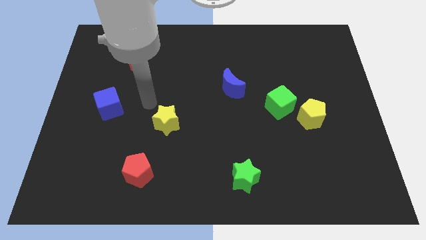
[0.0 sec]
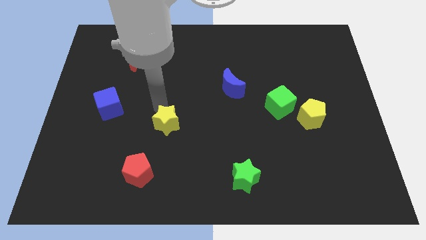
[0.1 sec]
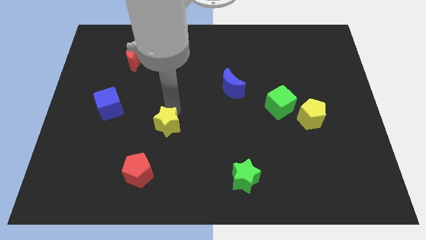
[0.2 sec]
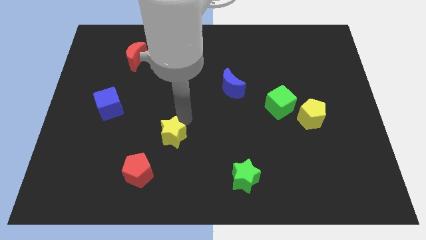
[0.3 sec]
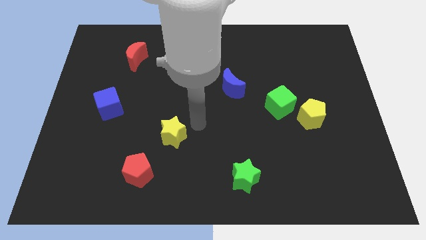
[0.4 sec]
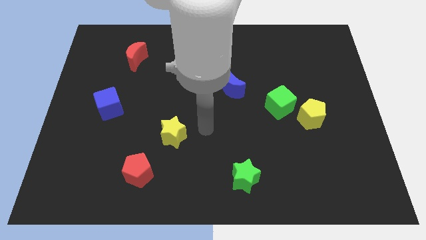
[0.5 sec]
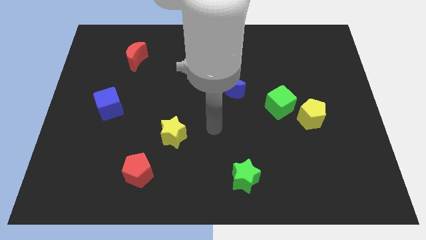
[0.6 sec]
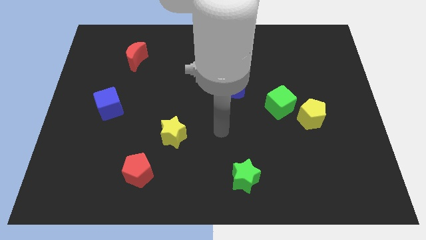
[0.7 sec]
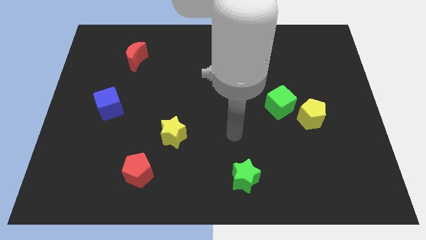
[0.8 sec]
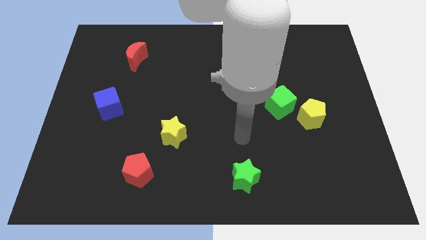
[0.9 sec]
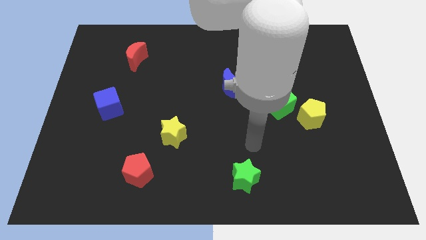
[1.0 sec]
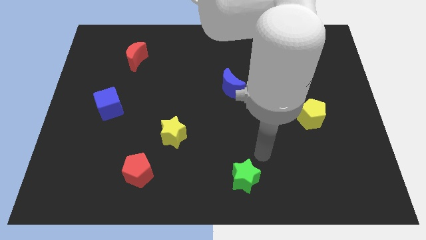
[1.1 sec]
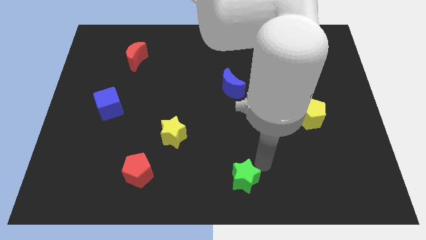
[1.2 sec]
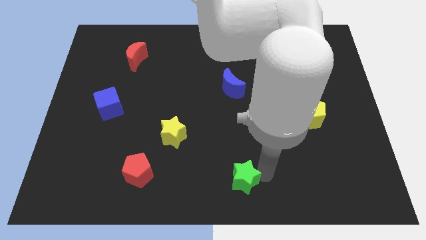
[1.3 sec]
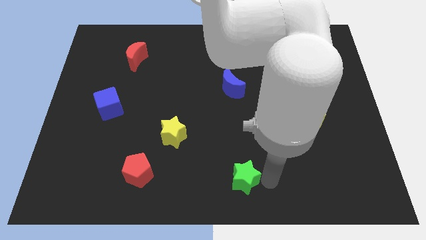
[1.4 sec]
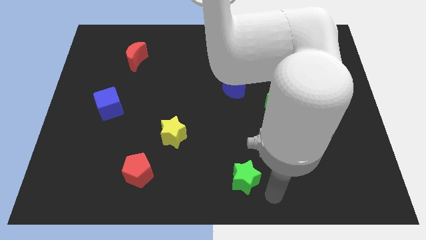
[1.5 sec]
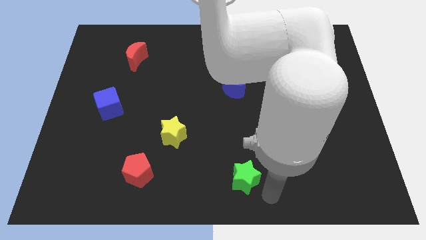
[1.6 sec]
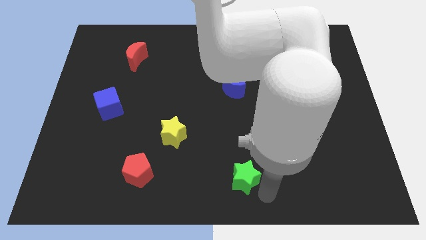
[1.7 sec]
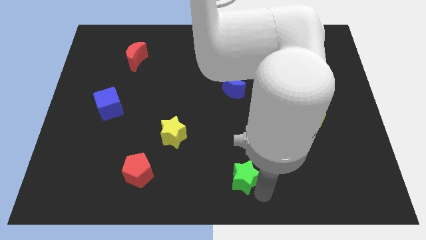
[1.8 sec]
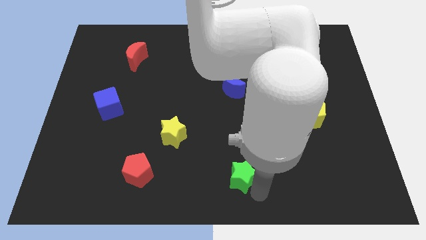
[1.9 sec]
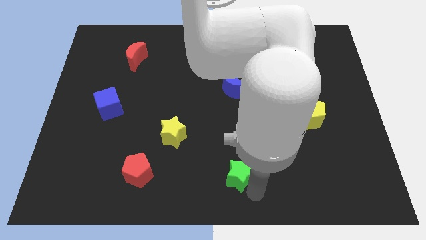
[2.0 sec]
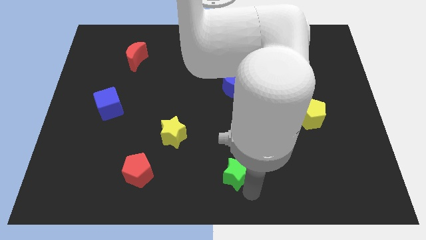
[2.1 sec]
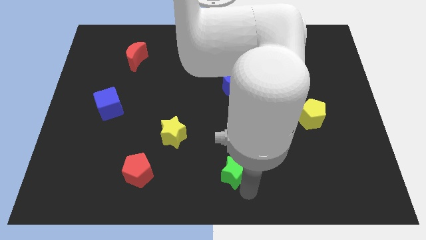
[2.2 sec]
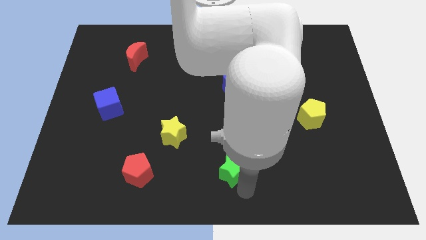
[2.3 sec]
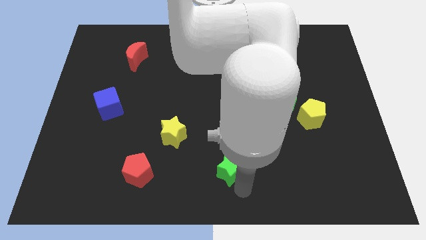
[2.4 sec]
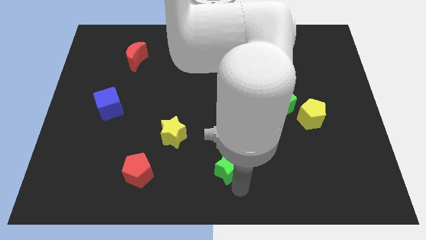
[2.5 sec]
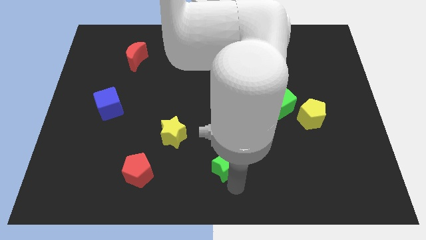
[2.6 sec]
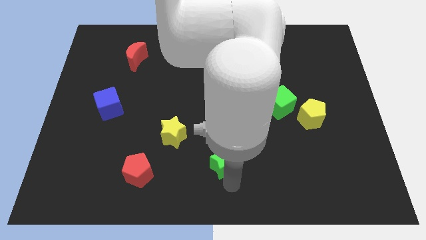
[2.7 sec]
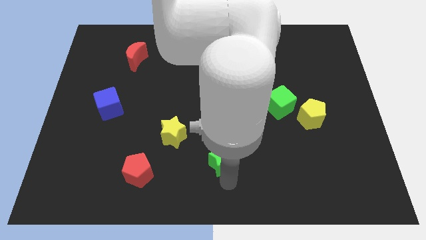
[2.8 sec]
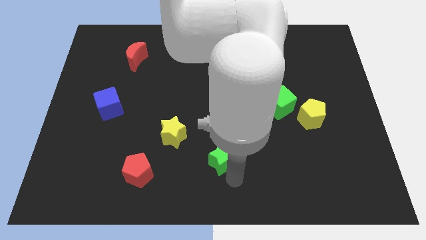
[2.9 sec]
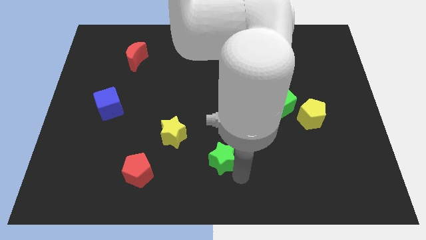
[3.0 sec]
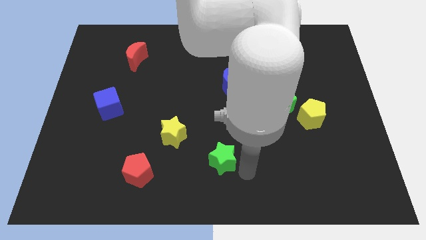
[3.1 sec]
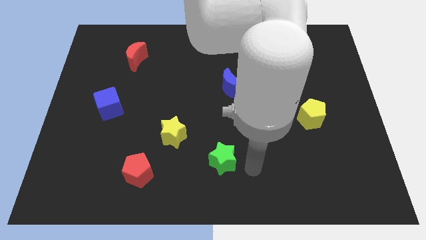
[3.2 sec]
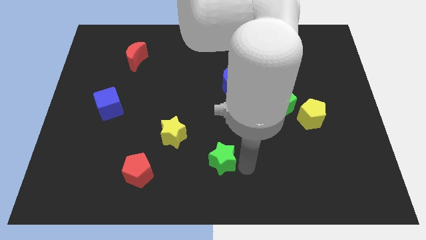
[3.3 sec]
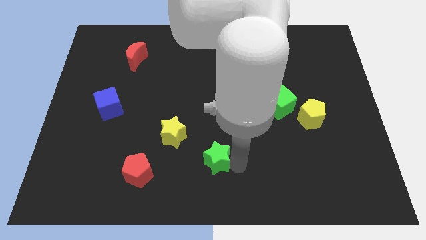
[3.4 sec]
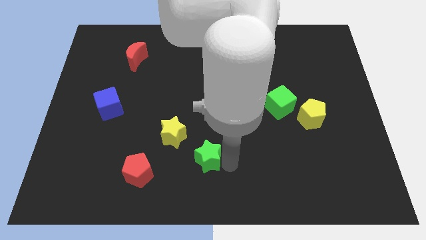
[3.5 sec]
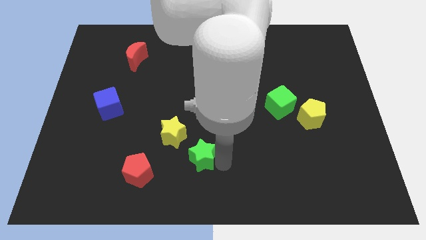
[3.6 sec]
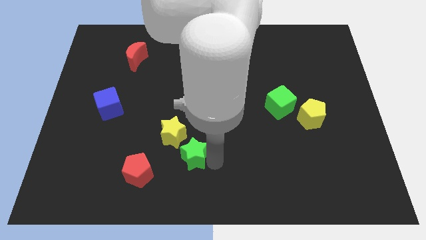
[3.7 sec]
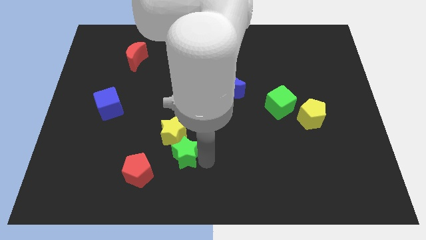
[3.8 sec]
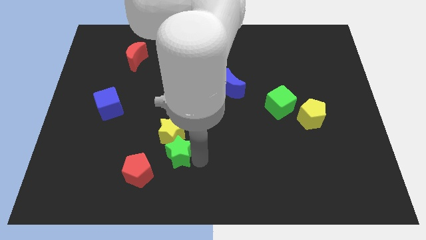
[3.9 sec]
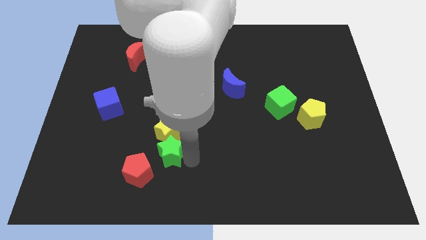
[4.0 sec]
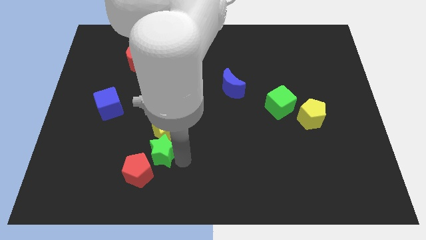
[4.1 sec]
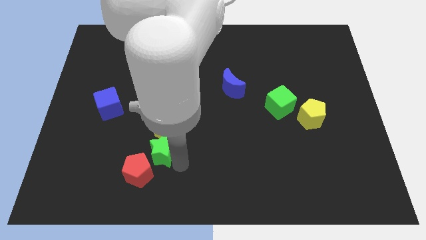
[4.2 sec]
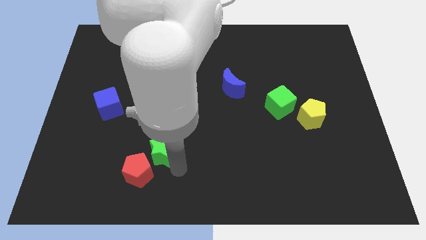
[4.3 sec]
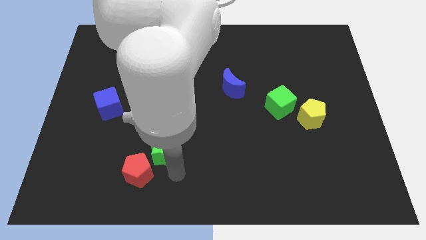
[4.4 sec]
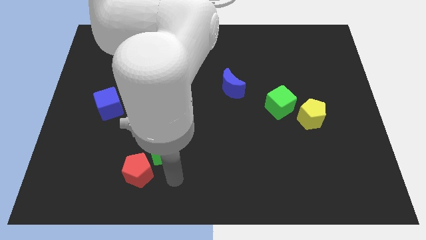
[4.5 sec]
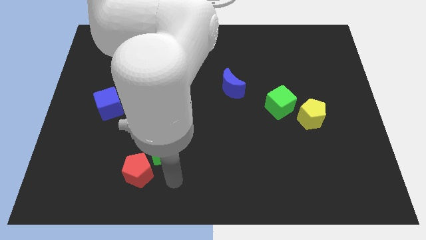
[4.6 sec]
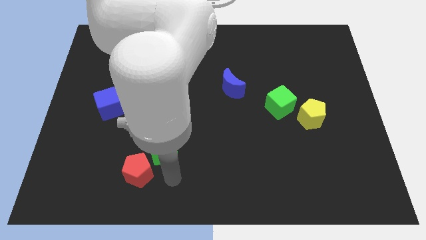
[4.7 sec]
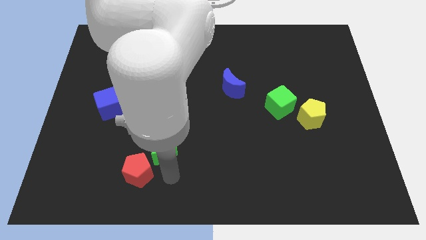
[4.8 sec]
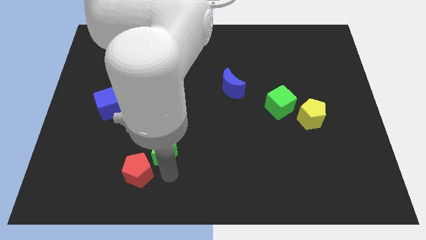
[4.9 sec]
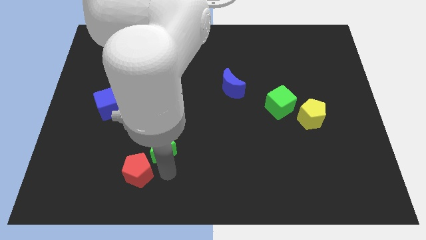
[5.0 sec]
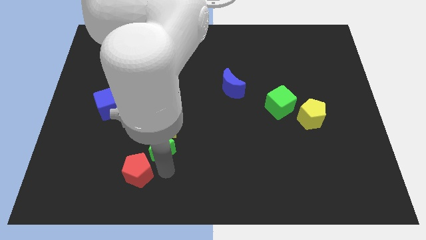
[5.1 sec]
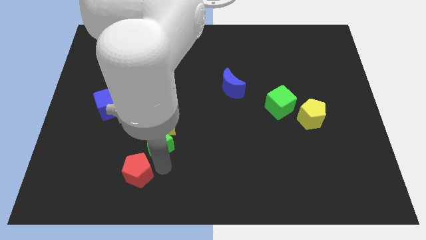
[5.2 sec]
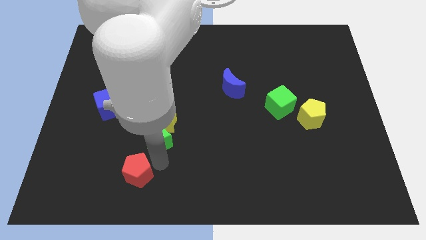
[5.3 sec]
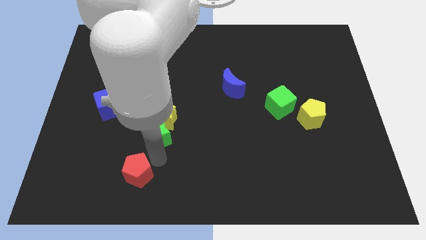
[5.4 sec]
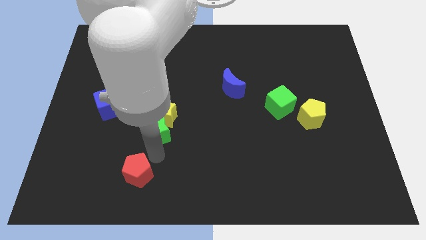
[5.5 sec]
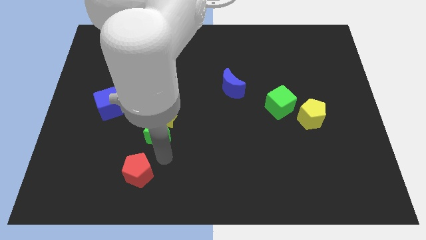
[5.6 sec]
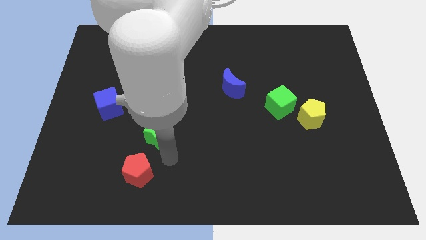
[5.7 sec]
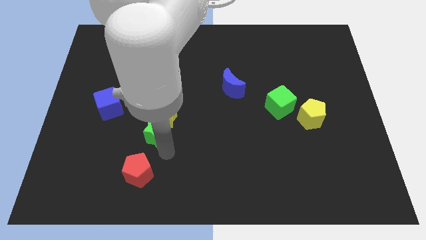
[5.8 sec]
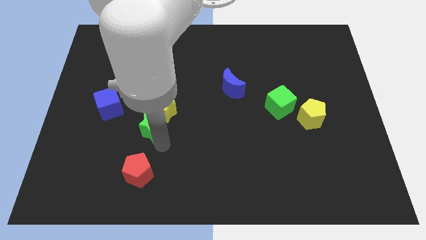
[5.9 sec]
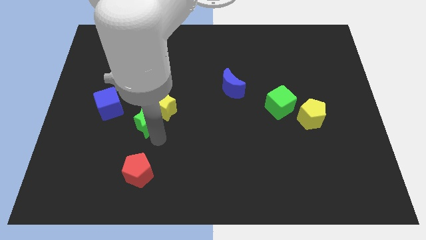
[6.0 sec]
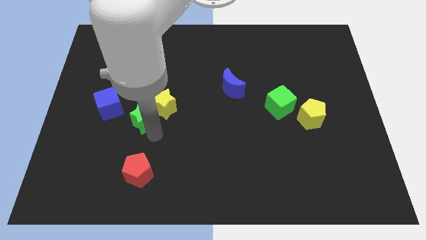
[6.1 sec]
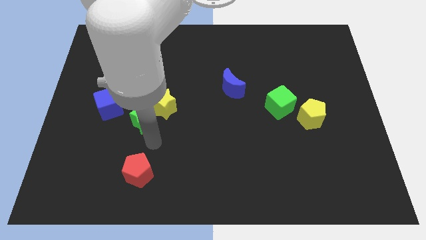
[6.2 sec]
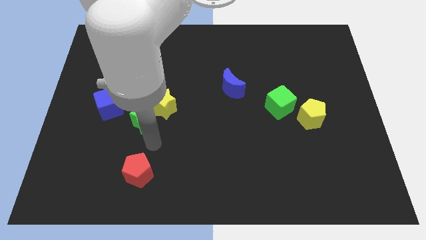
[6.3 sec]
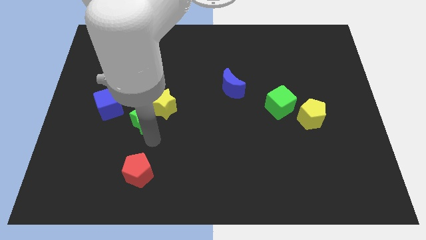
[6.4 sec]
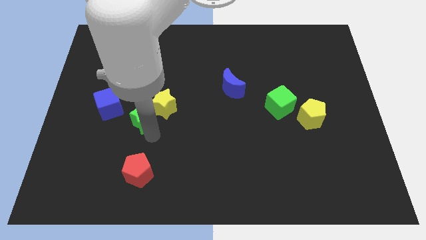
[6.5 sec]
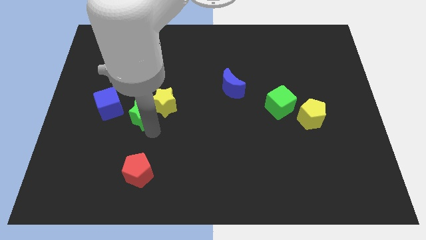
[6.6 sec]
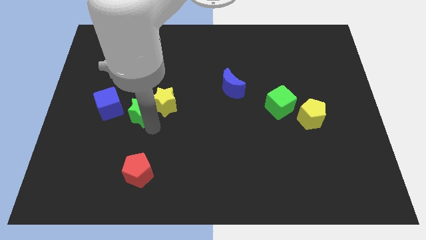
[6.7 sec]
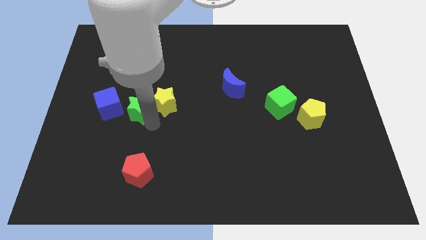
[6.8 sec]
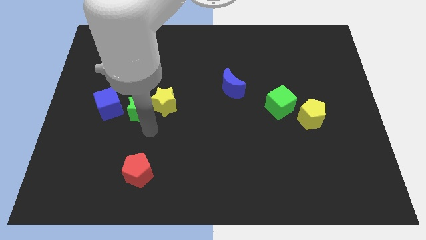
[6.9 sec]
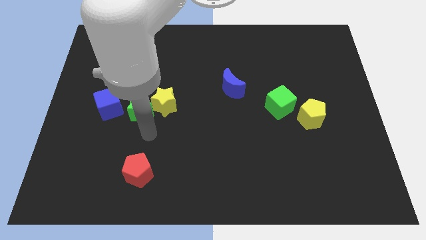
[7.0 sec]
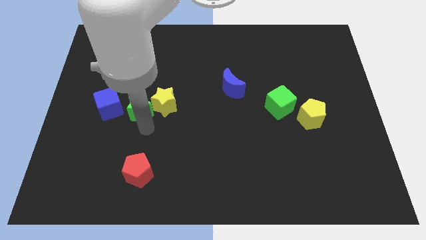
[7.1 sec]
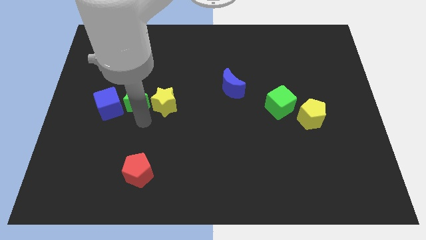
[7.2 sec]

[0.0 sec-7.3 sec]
push the green star to the bottom side of the red moon
